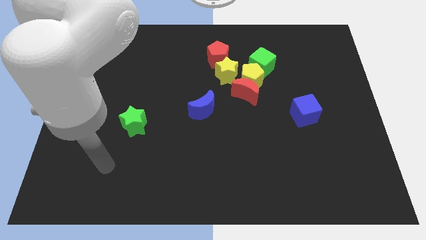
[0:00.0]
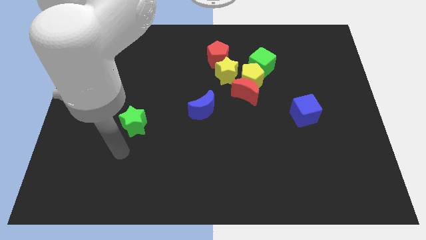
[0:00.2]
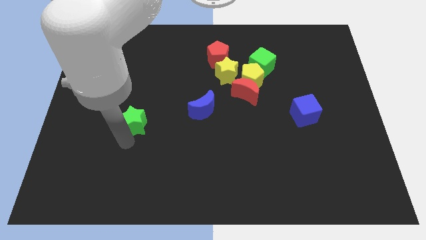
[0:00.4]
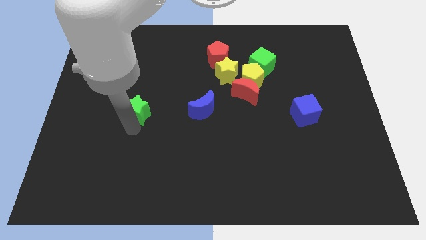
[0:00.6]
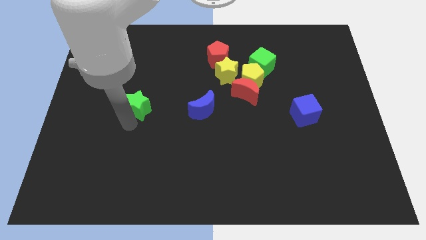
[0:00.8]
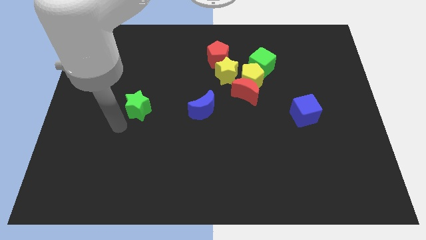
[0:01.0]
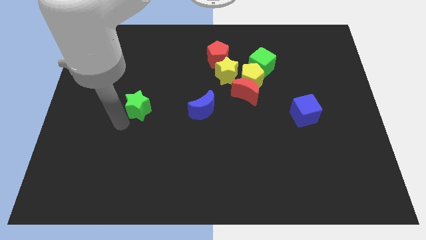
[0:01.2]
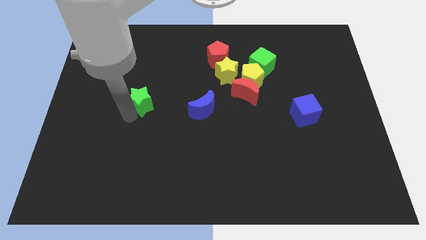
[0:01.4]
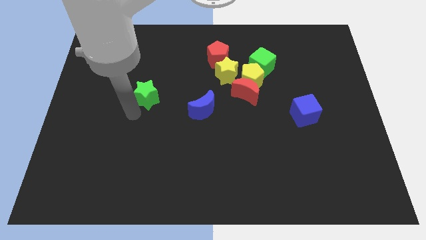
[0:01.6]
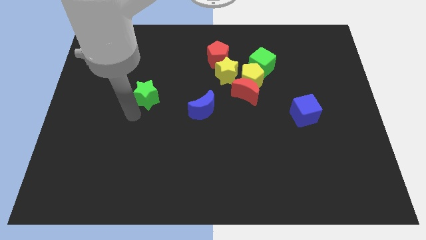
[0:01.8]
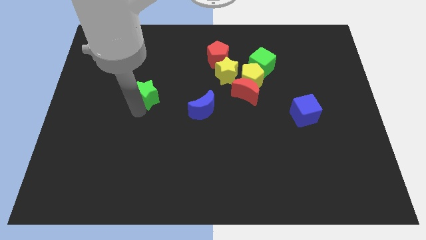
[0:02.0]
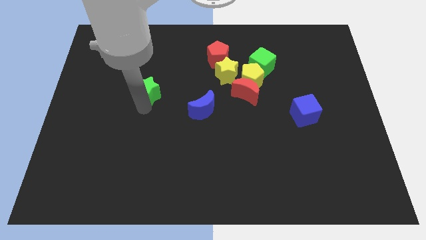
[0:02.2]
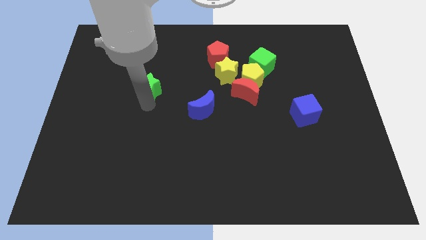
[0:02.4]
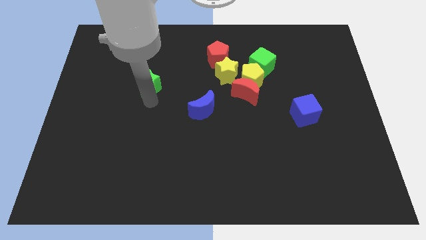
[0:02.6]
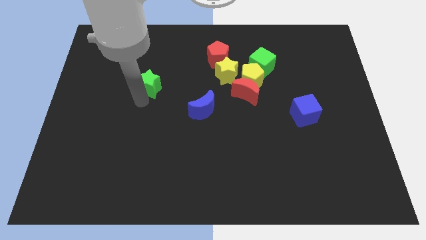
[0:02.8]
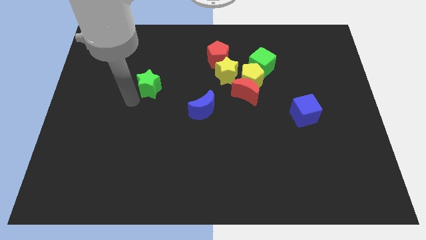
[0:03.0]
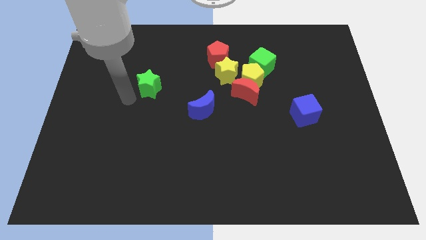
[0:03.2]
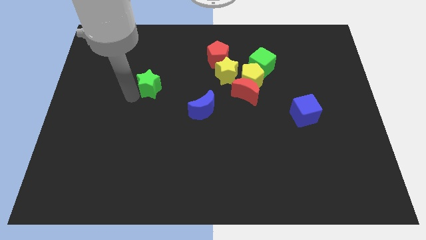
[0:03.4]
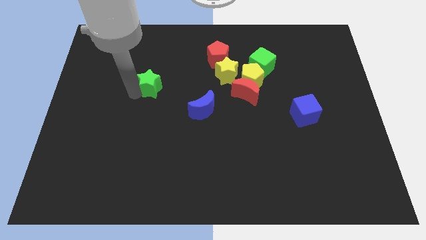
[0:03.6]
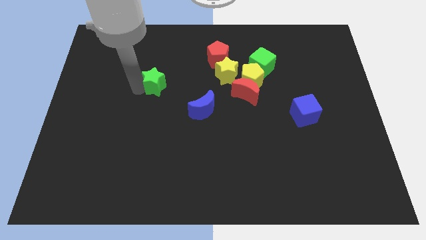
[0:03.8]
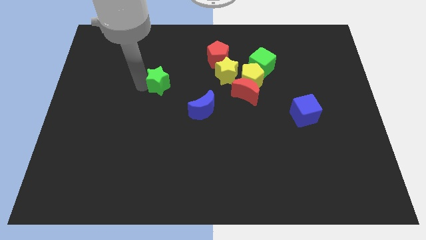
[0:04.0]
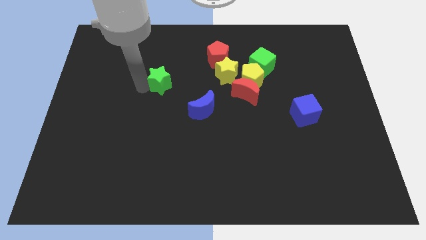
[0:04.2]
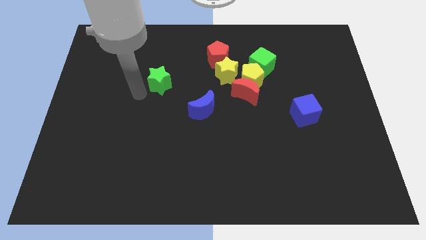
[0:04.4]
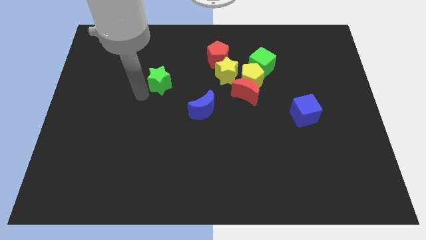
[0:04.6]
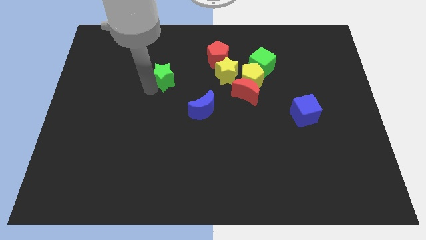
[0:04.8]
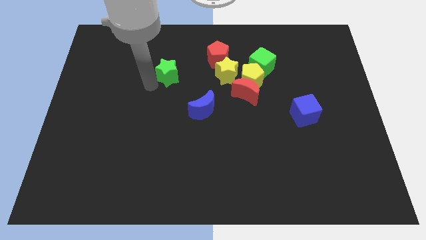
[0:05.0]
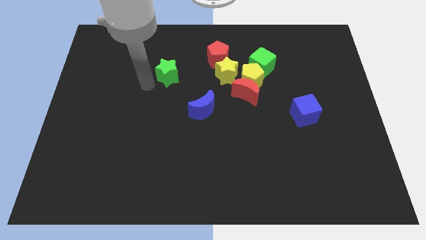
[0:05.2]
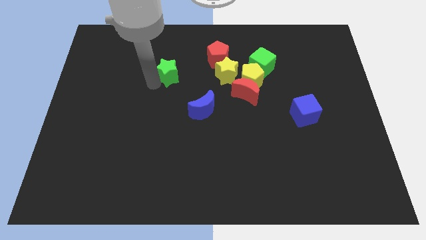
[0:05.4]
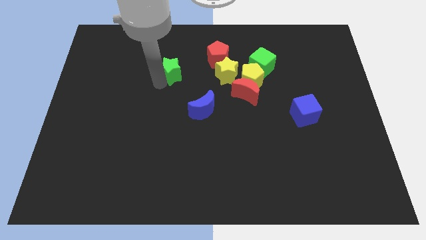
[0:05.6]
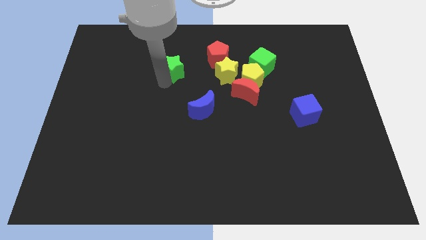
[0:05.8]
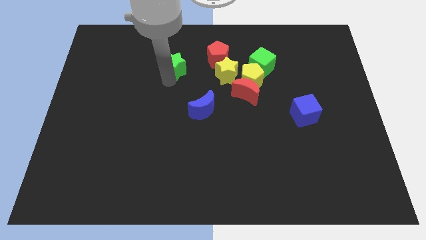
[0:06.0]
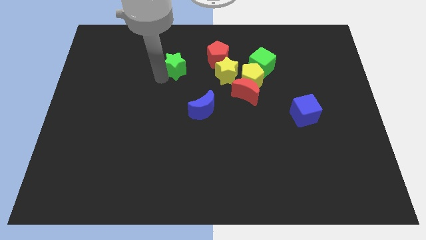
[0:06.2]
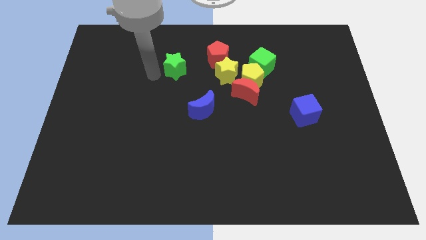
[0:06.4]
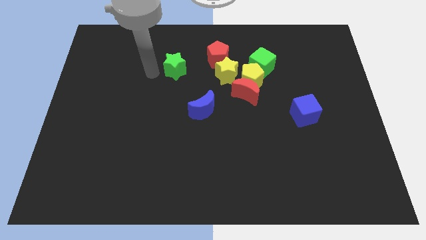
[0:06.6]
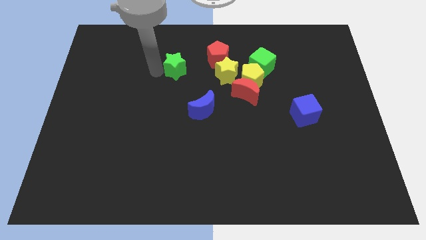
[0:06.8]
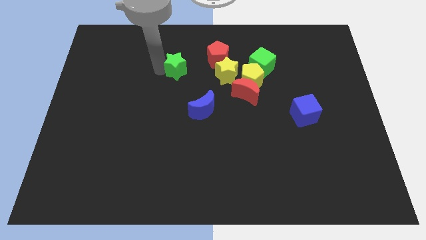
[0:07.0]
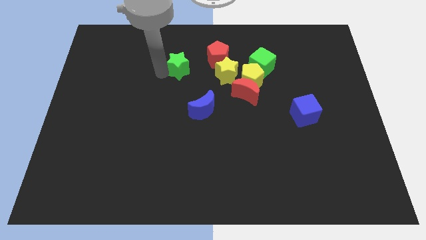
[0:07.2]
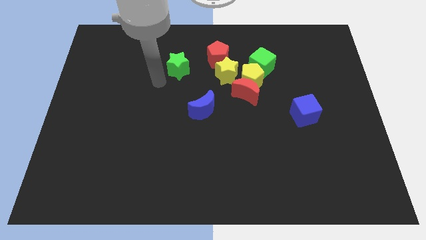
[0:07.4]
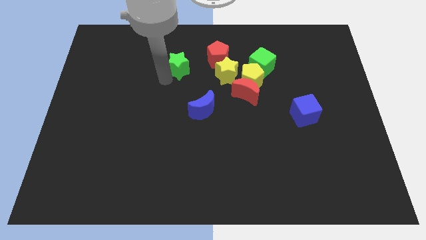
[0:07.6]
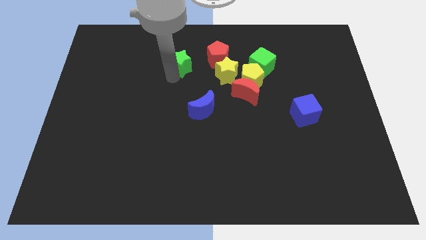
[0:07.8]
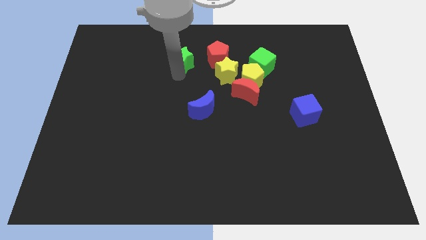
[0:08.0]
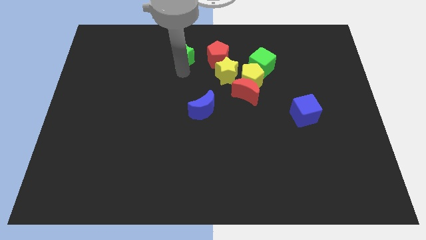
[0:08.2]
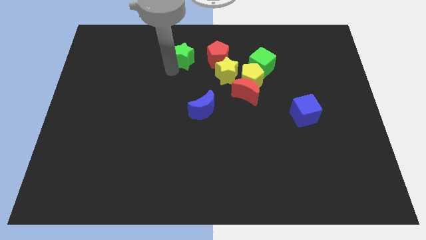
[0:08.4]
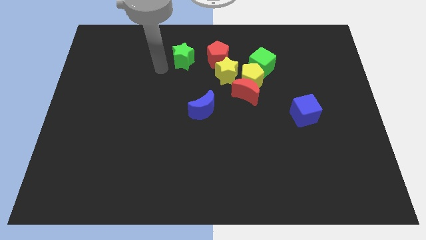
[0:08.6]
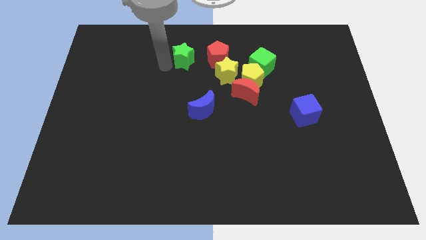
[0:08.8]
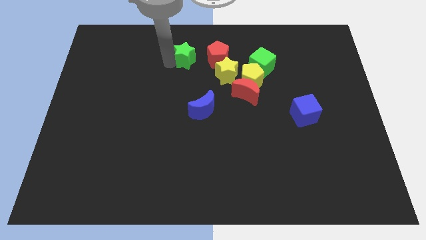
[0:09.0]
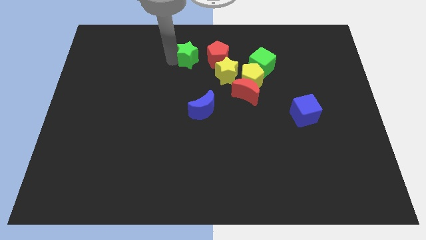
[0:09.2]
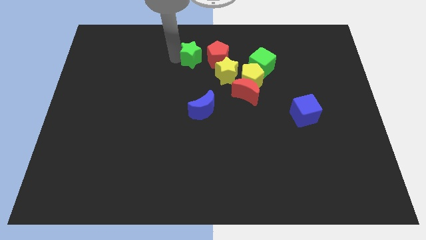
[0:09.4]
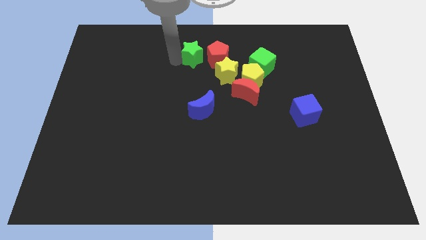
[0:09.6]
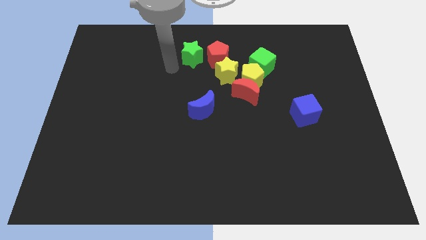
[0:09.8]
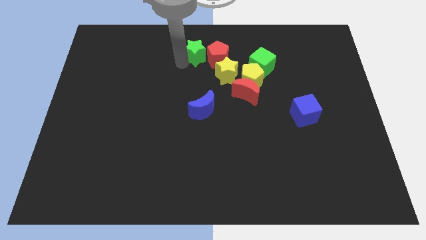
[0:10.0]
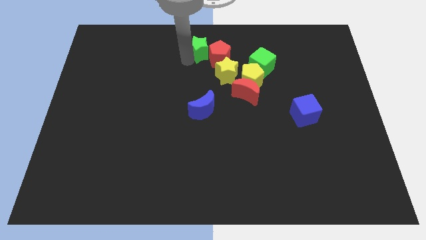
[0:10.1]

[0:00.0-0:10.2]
put the green star to the towards your base

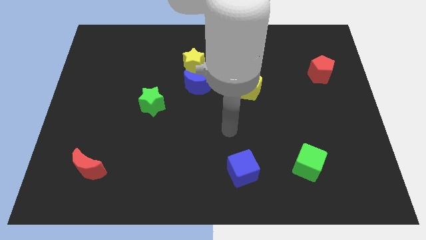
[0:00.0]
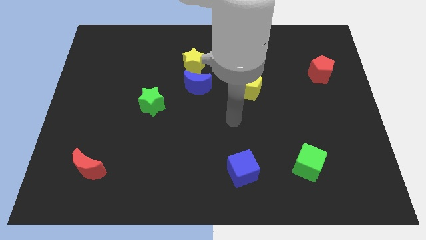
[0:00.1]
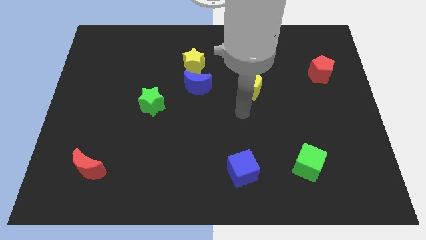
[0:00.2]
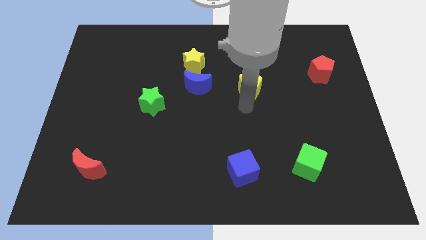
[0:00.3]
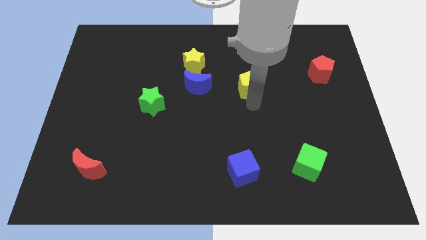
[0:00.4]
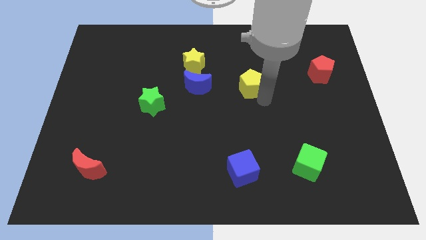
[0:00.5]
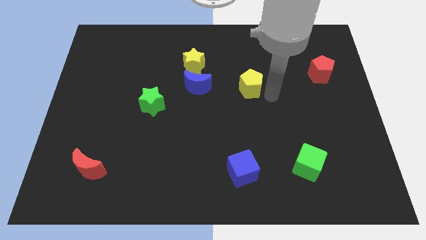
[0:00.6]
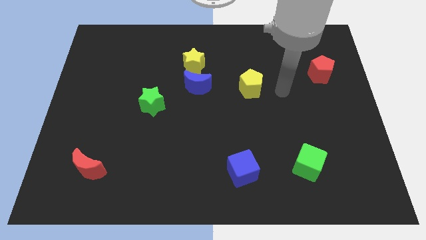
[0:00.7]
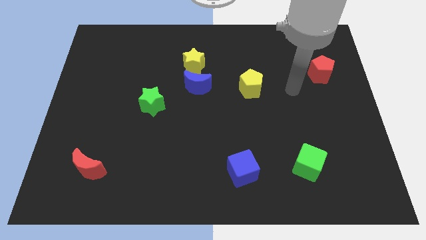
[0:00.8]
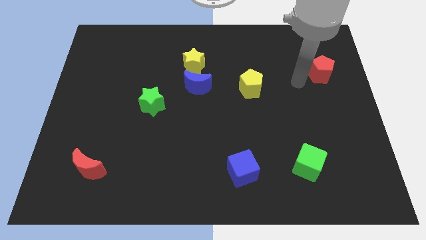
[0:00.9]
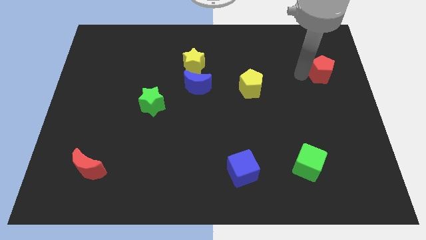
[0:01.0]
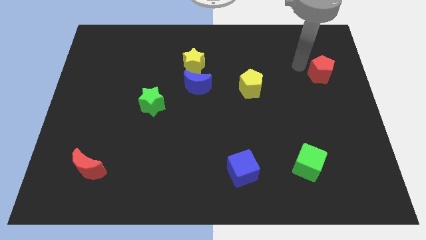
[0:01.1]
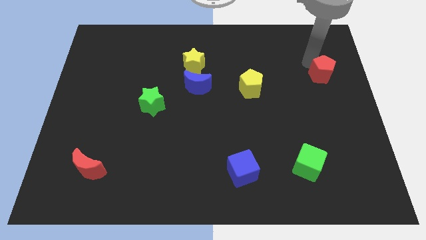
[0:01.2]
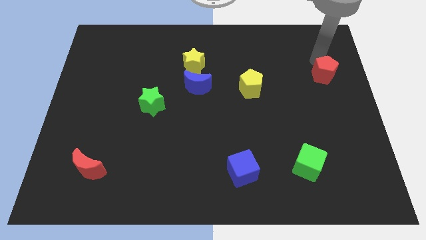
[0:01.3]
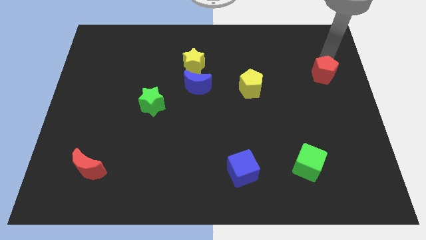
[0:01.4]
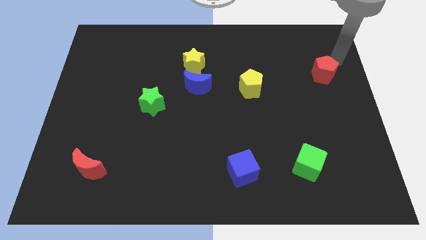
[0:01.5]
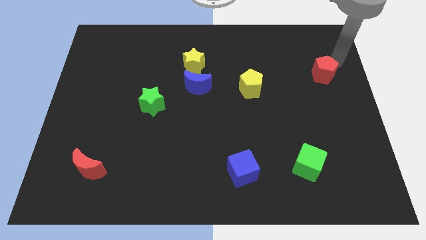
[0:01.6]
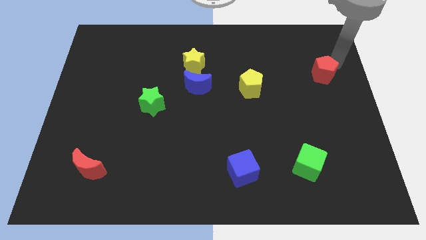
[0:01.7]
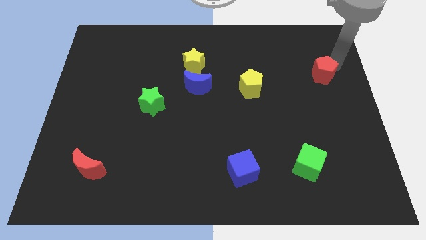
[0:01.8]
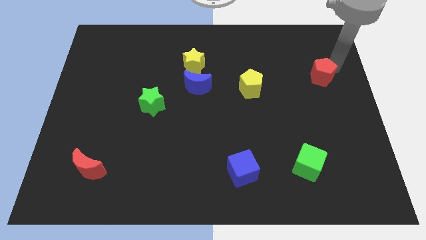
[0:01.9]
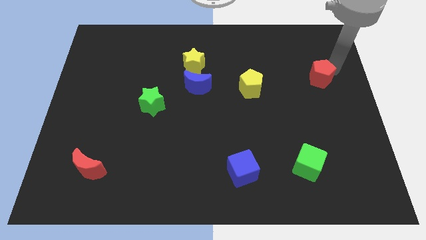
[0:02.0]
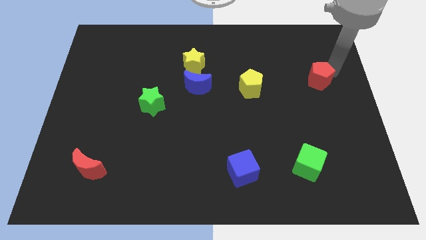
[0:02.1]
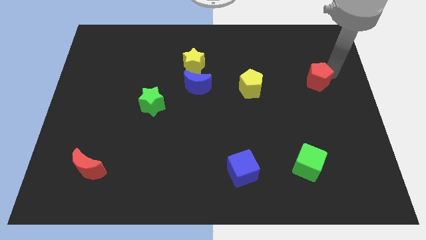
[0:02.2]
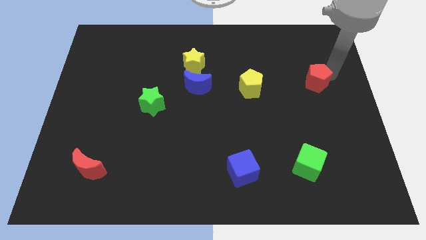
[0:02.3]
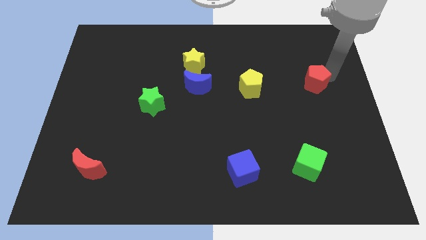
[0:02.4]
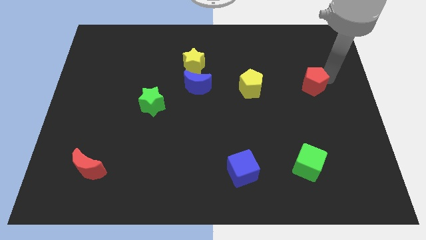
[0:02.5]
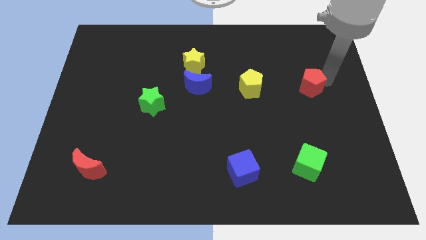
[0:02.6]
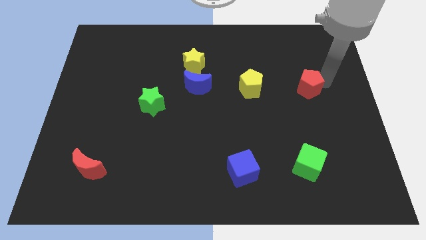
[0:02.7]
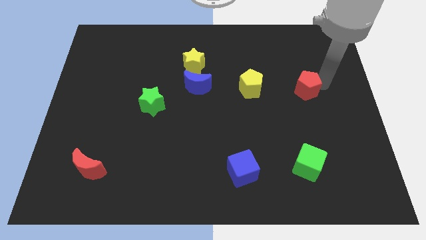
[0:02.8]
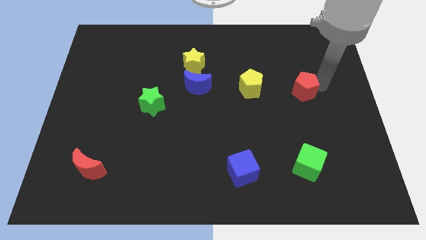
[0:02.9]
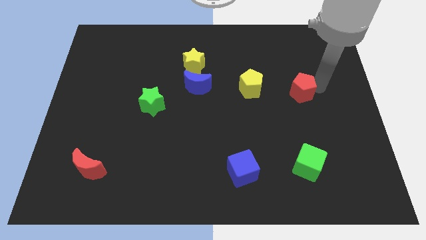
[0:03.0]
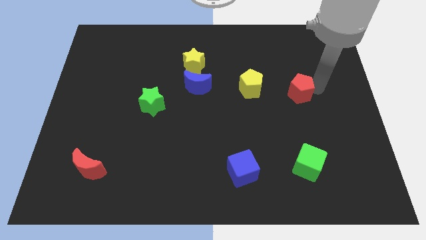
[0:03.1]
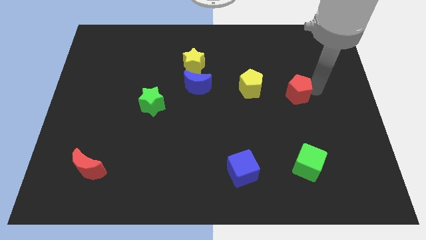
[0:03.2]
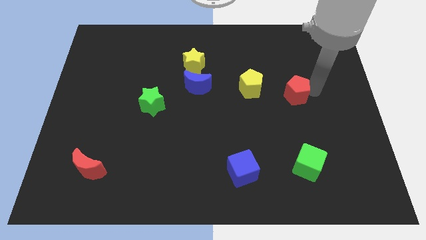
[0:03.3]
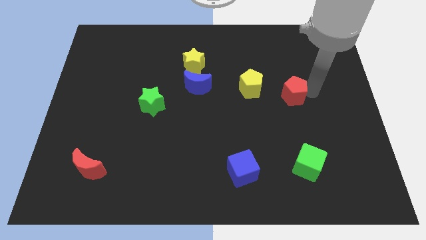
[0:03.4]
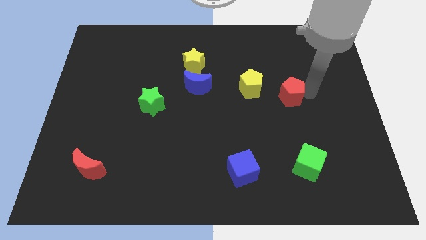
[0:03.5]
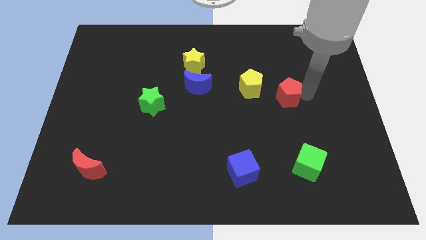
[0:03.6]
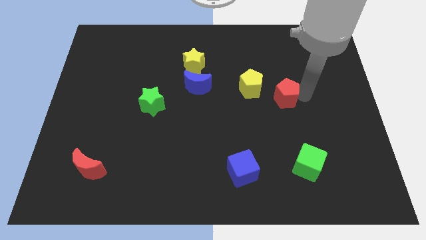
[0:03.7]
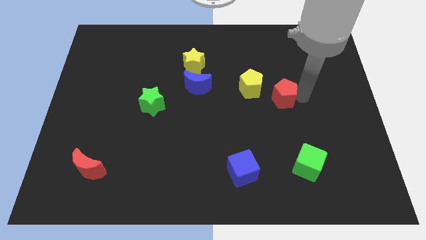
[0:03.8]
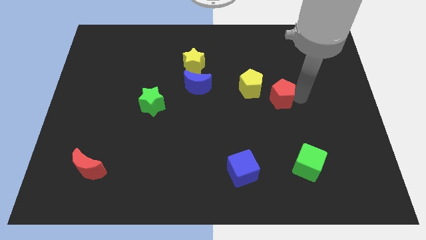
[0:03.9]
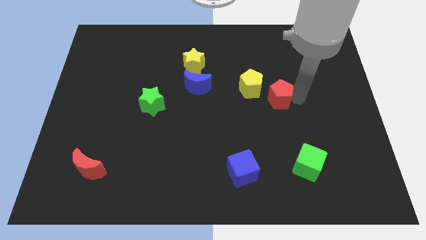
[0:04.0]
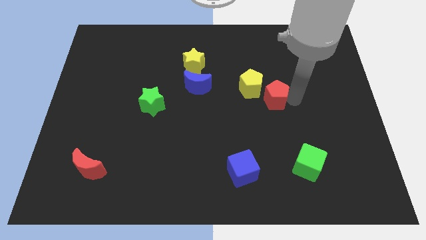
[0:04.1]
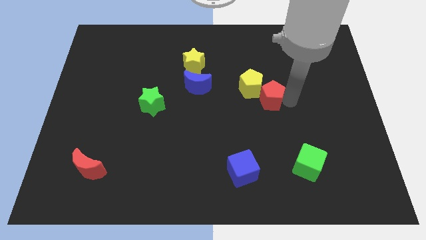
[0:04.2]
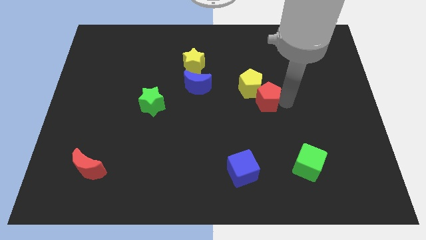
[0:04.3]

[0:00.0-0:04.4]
move the red pentagon to the center of the board
